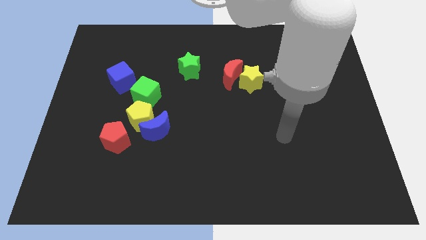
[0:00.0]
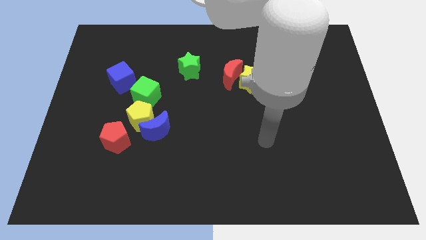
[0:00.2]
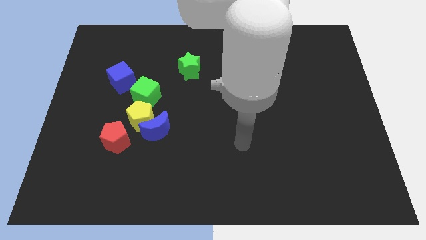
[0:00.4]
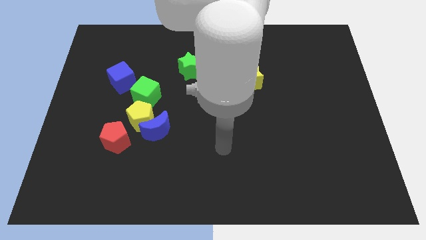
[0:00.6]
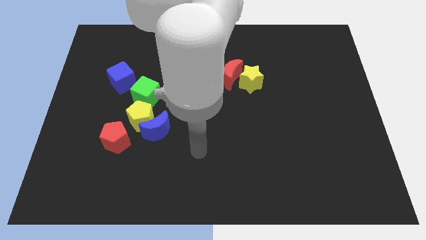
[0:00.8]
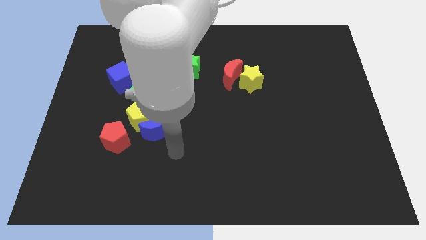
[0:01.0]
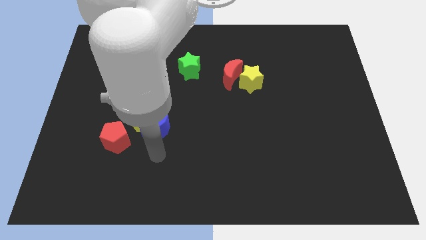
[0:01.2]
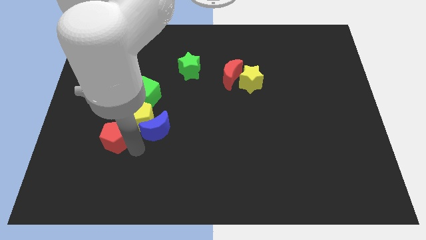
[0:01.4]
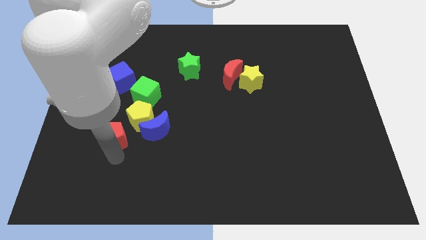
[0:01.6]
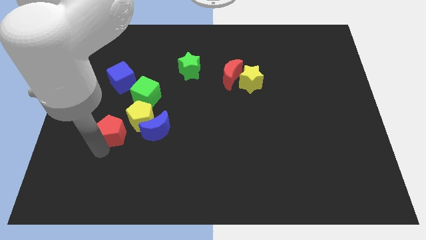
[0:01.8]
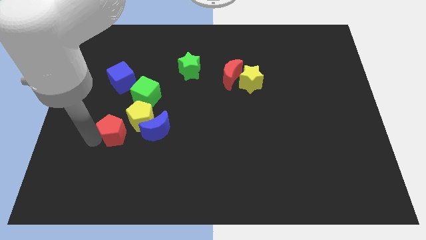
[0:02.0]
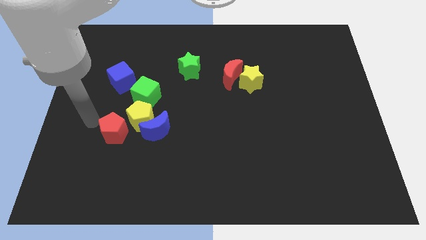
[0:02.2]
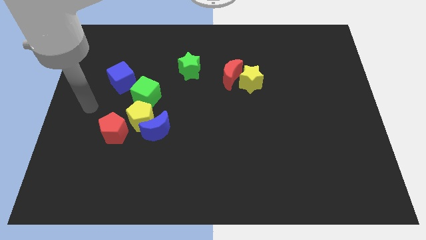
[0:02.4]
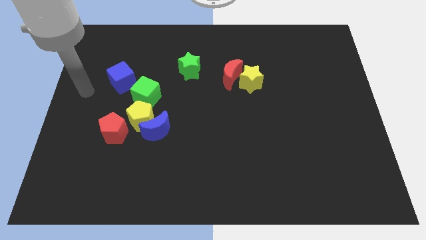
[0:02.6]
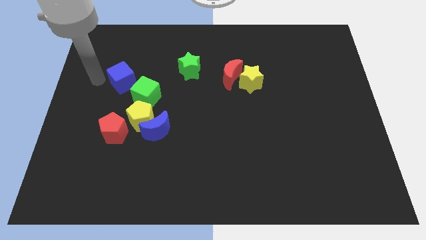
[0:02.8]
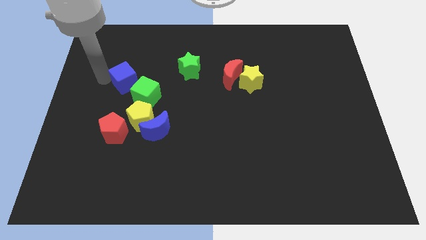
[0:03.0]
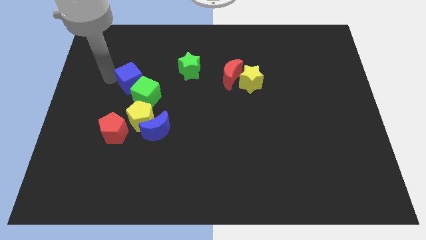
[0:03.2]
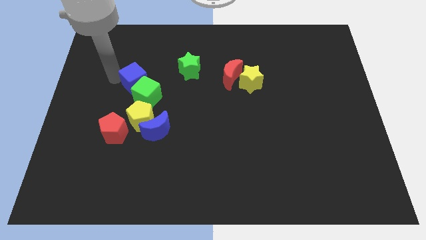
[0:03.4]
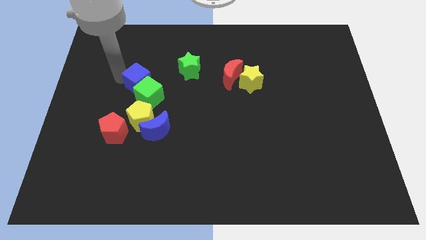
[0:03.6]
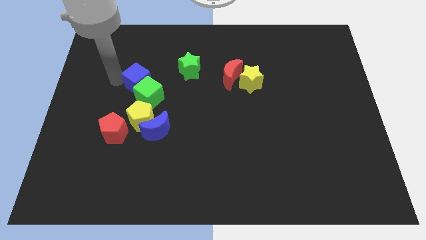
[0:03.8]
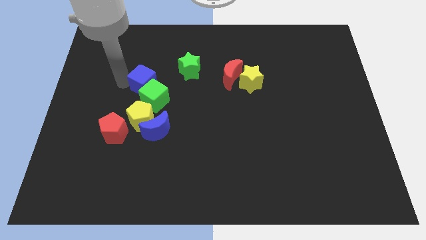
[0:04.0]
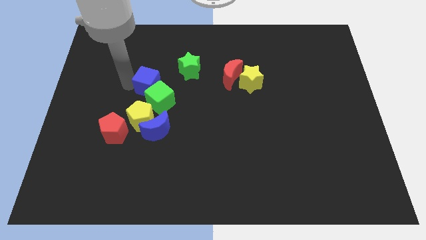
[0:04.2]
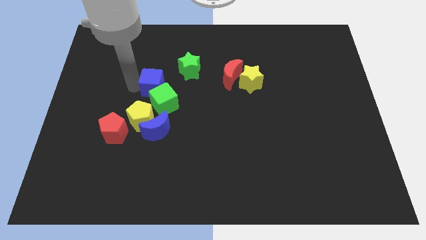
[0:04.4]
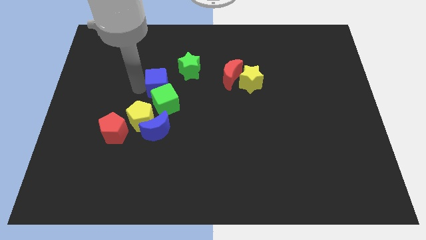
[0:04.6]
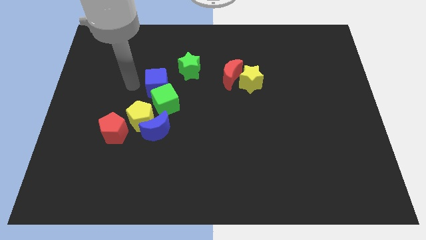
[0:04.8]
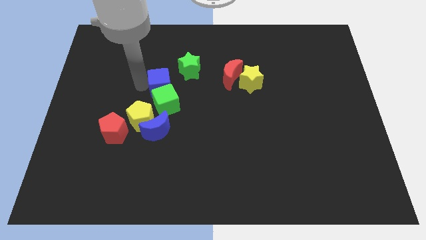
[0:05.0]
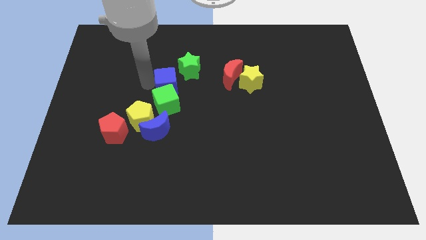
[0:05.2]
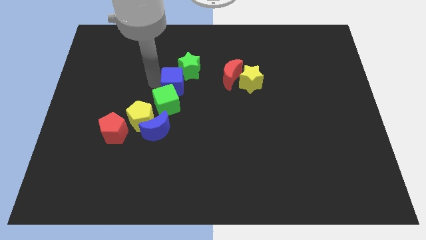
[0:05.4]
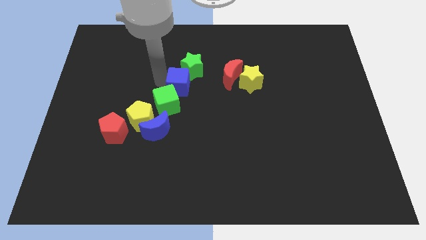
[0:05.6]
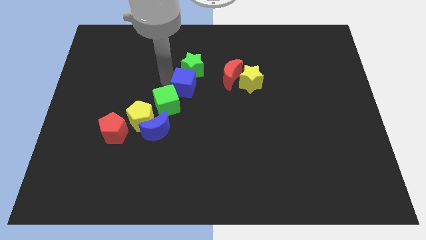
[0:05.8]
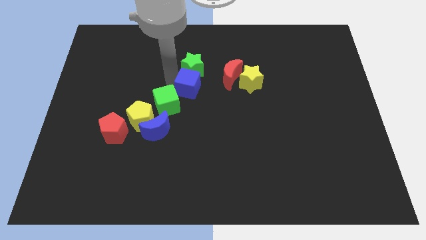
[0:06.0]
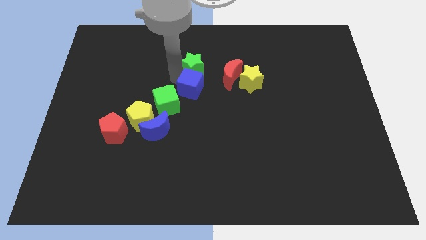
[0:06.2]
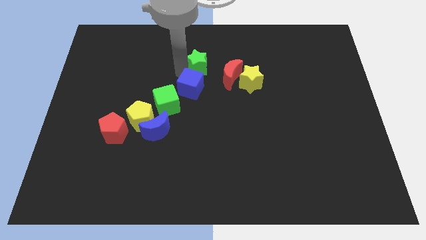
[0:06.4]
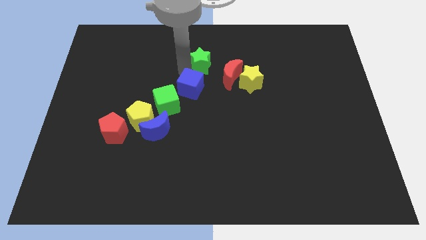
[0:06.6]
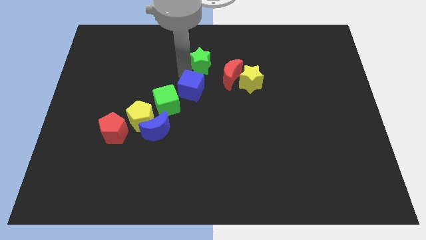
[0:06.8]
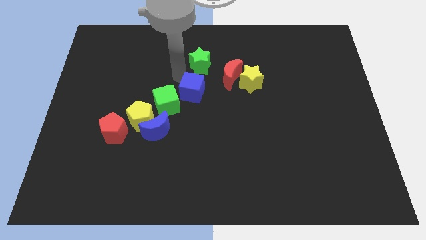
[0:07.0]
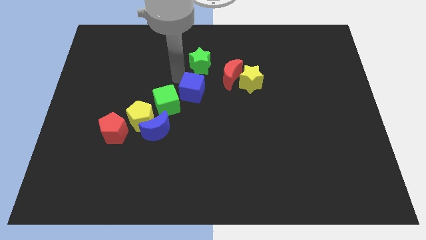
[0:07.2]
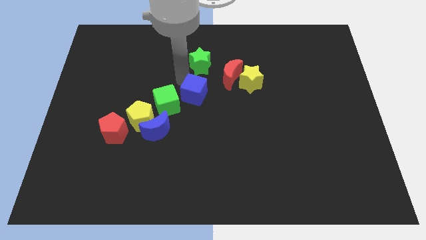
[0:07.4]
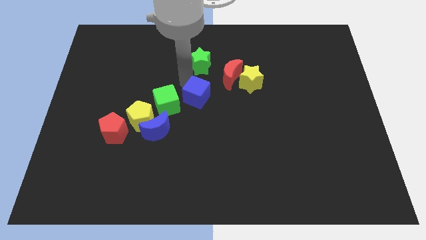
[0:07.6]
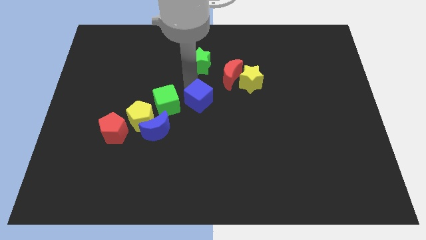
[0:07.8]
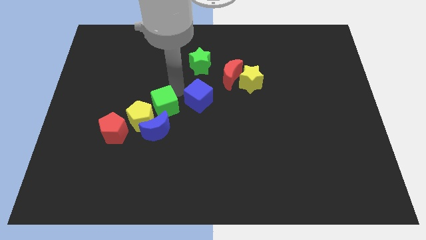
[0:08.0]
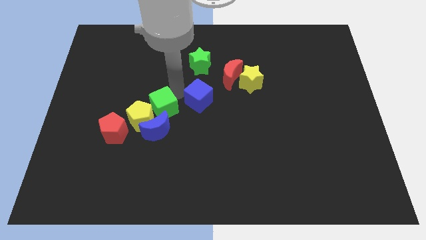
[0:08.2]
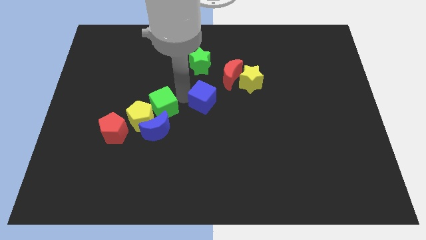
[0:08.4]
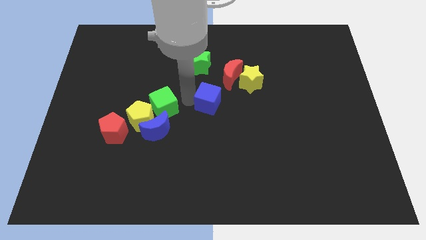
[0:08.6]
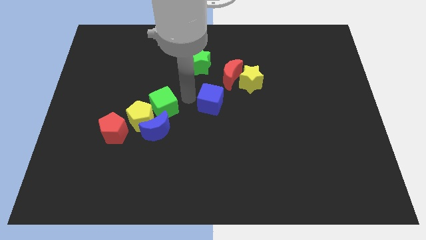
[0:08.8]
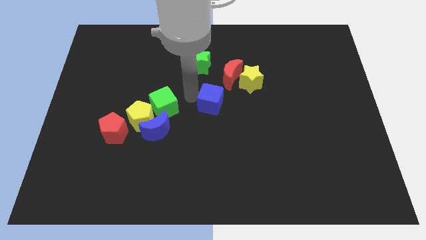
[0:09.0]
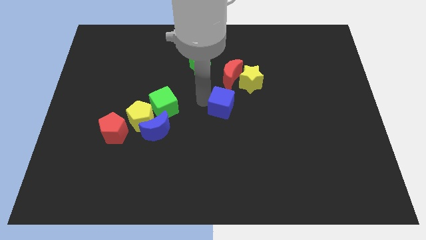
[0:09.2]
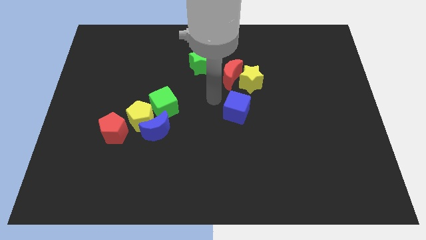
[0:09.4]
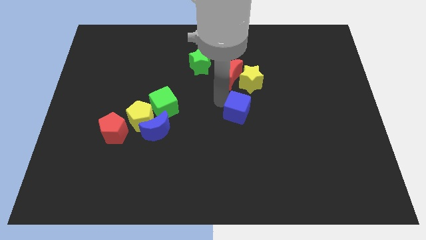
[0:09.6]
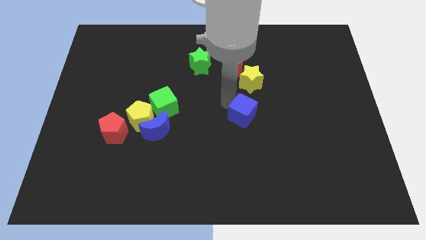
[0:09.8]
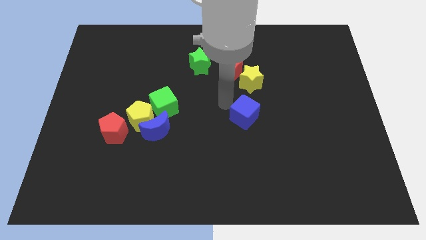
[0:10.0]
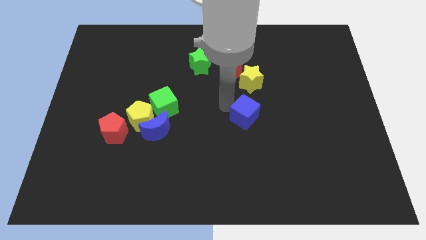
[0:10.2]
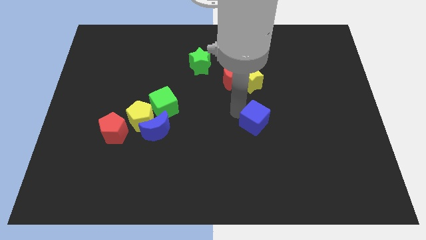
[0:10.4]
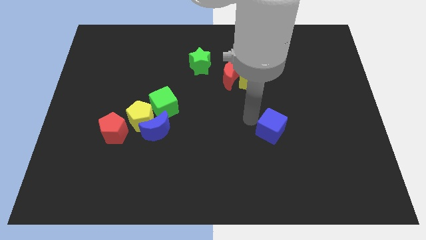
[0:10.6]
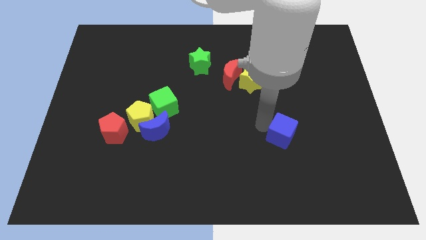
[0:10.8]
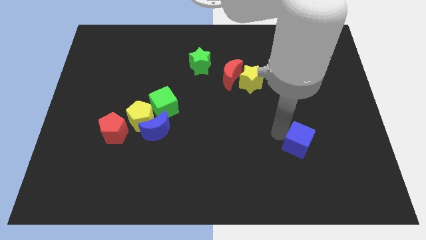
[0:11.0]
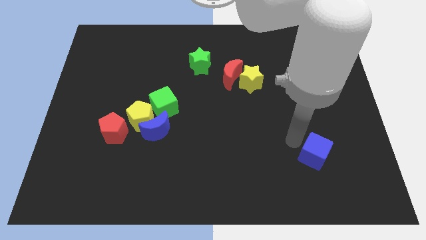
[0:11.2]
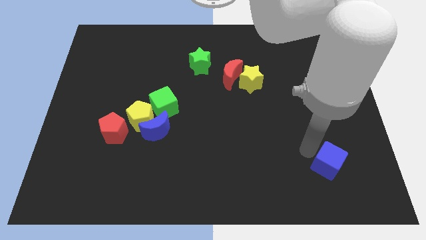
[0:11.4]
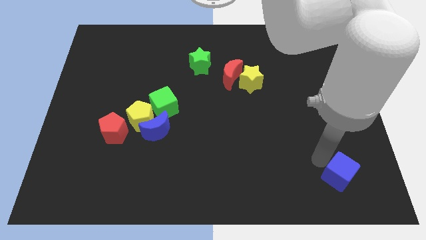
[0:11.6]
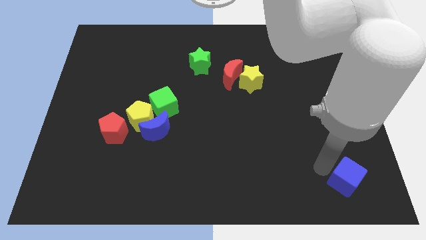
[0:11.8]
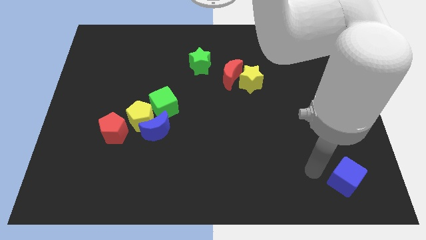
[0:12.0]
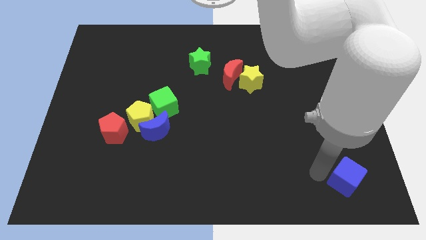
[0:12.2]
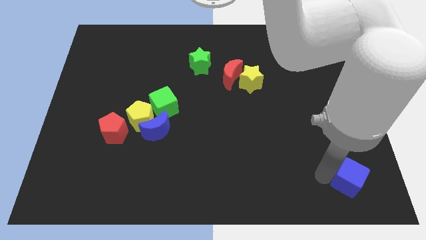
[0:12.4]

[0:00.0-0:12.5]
slide the blue cube to the lower right corner

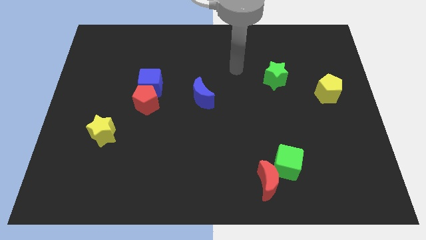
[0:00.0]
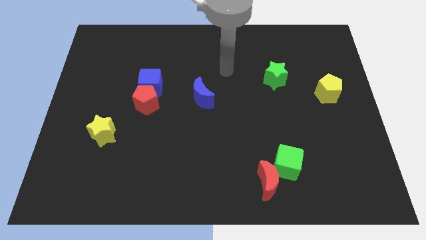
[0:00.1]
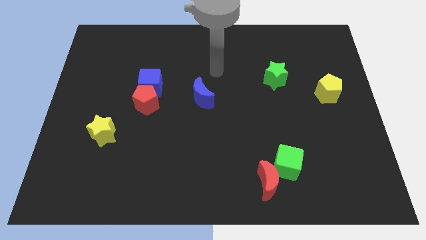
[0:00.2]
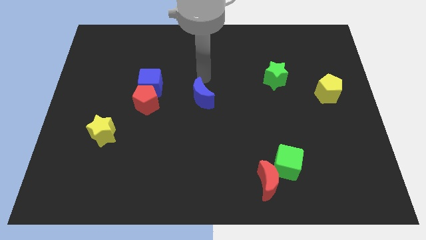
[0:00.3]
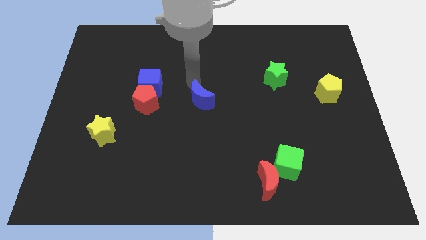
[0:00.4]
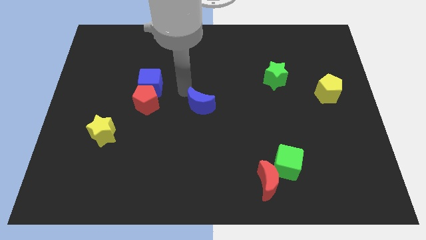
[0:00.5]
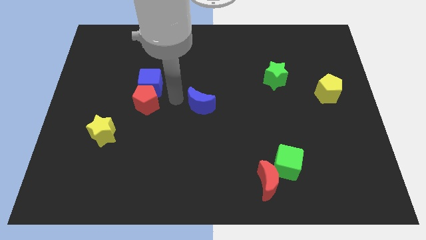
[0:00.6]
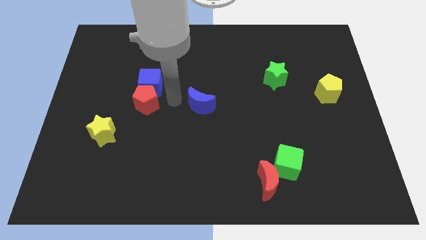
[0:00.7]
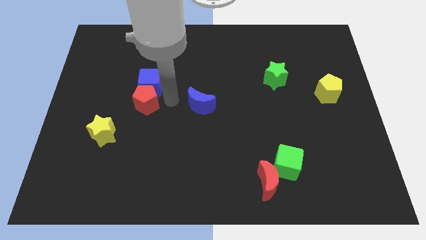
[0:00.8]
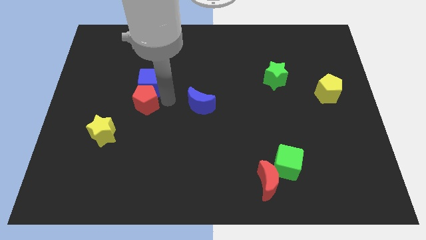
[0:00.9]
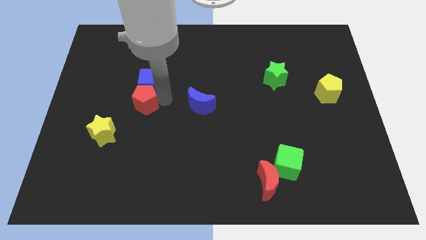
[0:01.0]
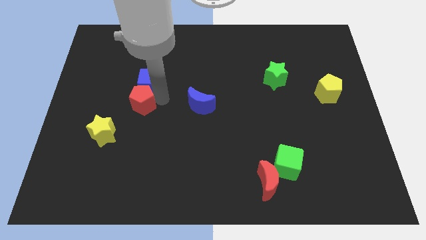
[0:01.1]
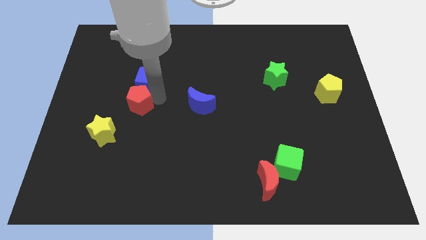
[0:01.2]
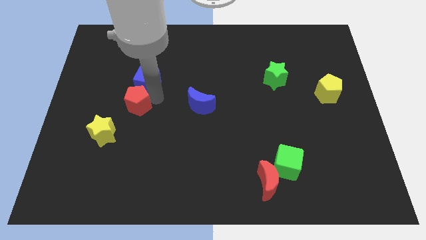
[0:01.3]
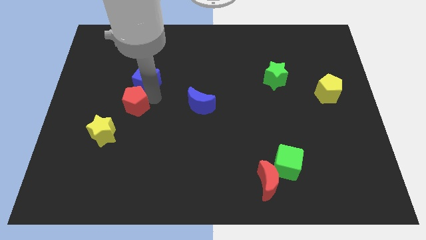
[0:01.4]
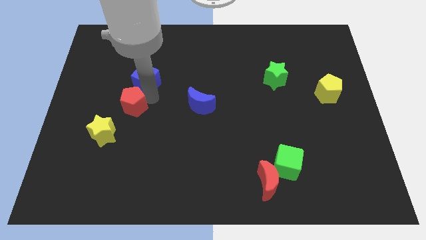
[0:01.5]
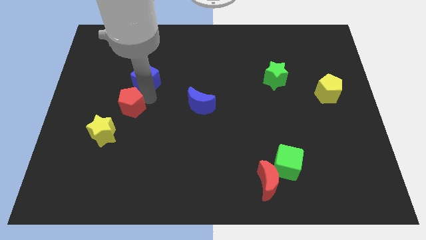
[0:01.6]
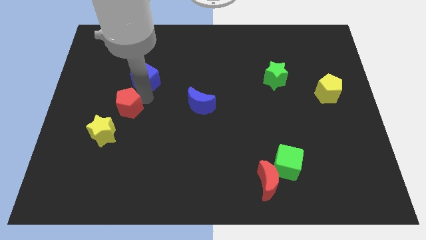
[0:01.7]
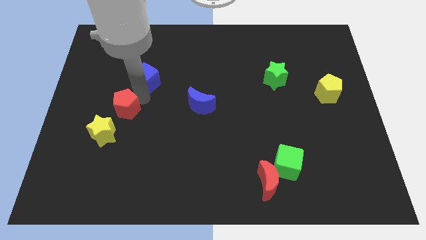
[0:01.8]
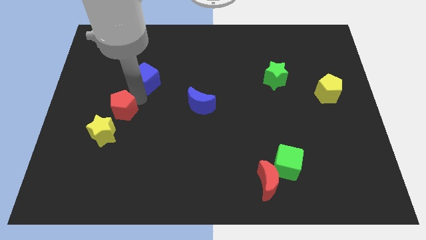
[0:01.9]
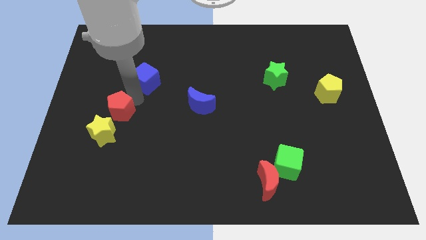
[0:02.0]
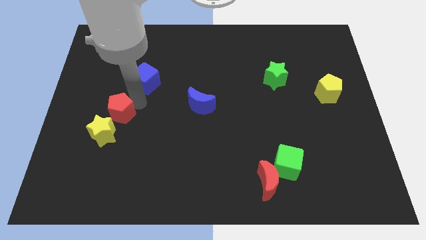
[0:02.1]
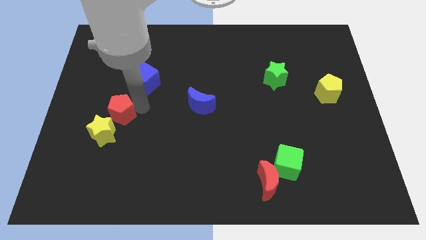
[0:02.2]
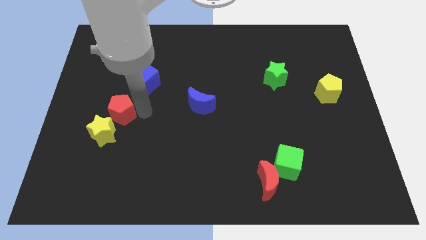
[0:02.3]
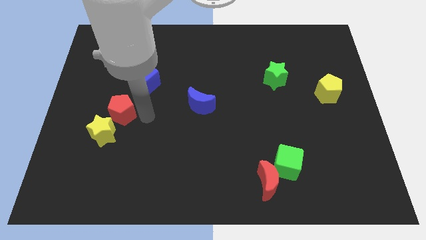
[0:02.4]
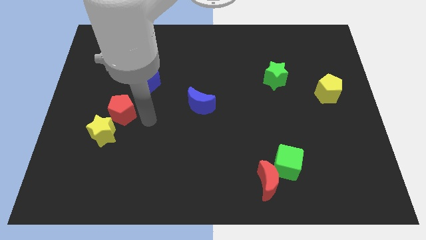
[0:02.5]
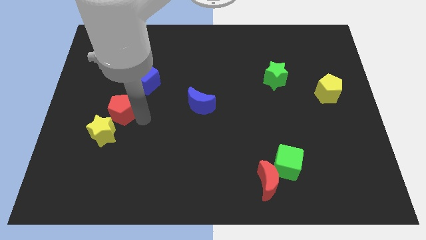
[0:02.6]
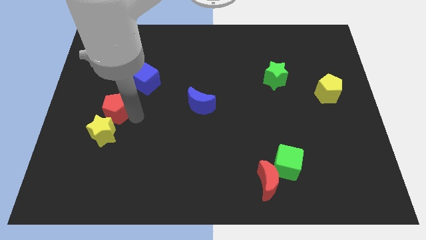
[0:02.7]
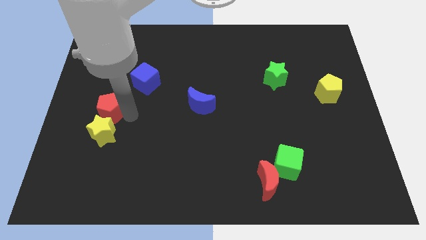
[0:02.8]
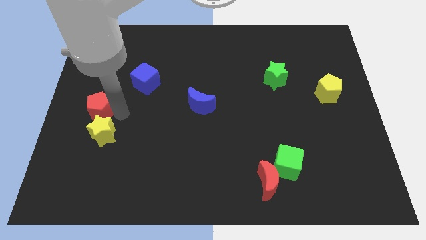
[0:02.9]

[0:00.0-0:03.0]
push the red pentagon to the left side of the board
